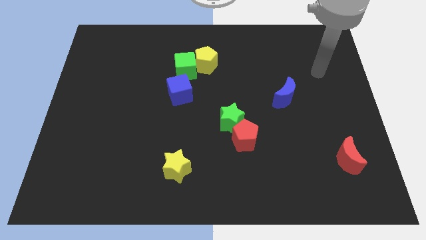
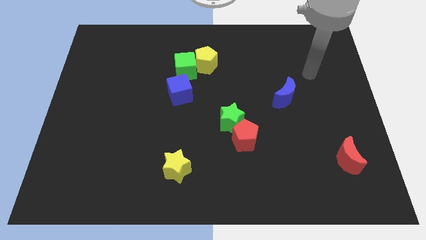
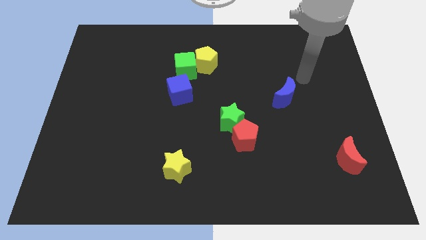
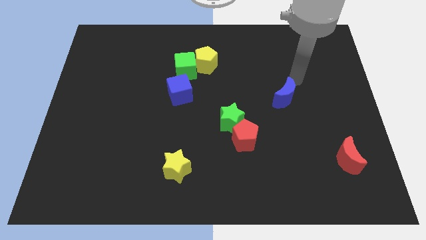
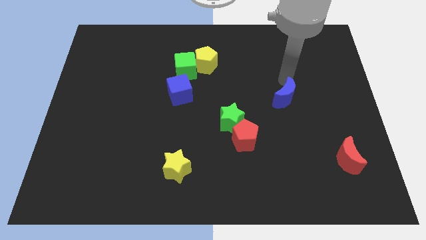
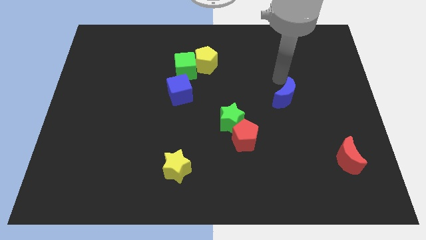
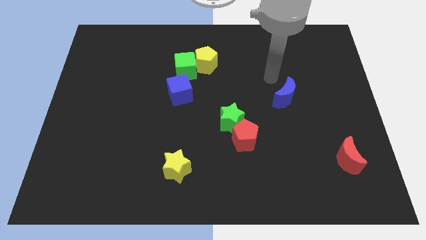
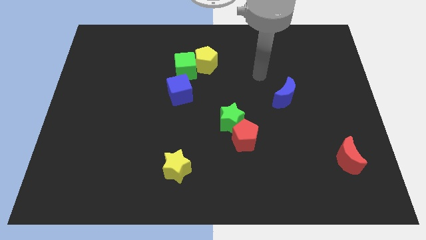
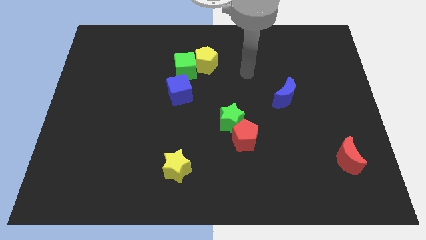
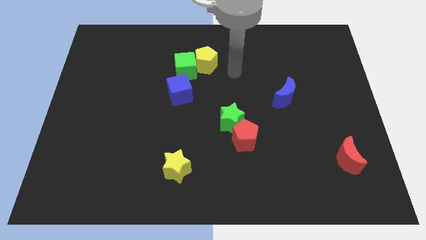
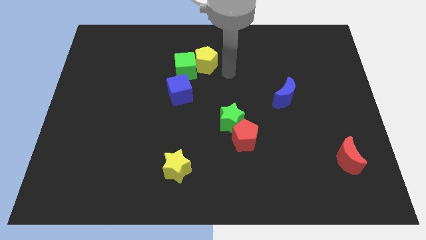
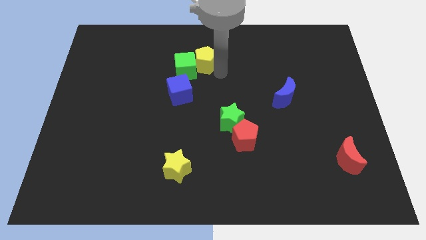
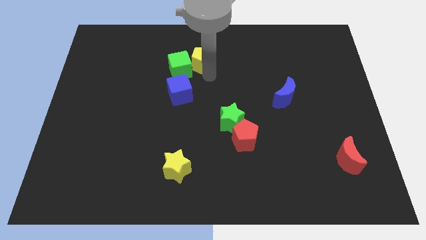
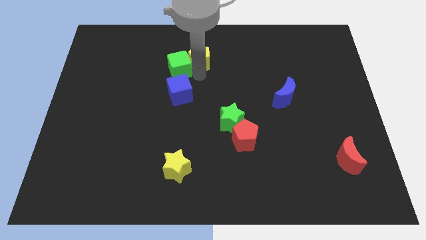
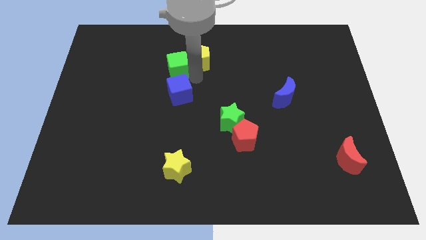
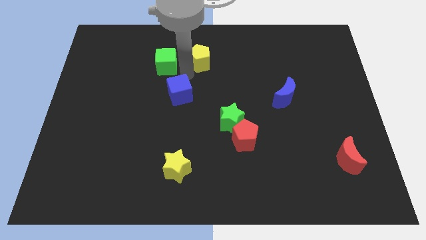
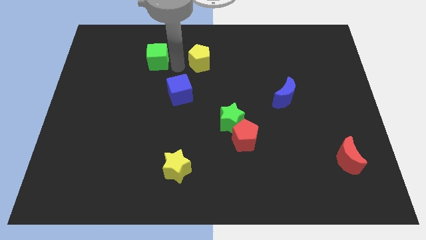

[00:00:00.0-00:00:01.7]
separate the yellow pentagon from the green cube

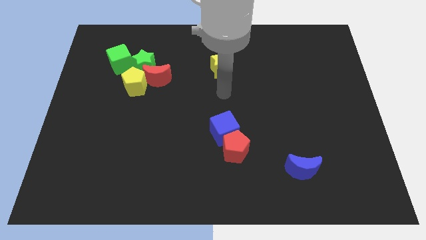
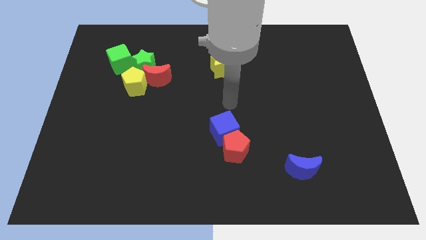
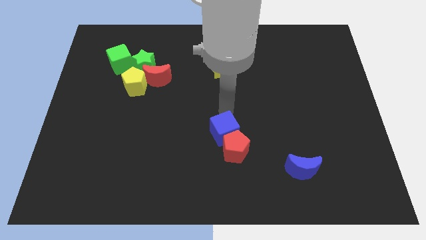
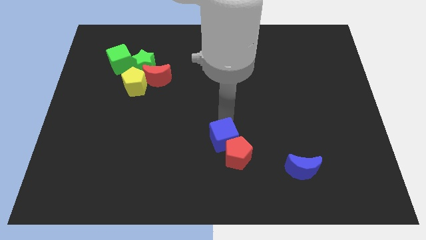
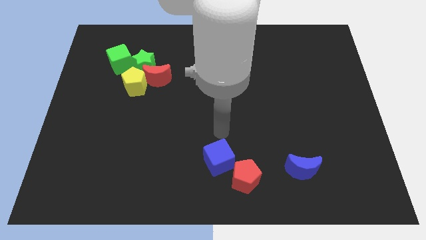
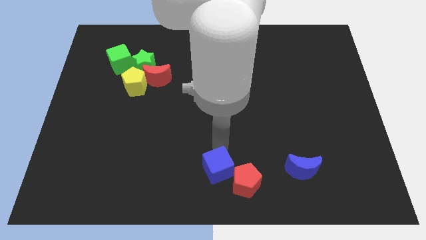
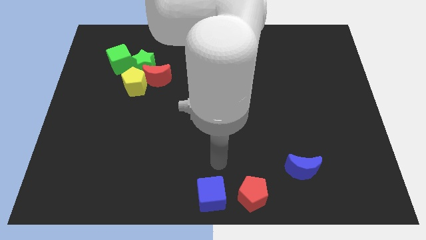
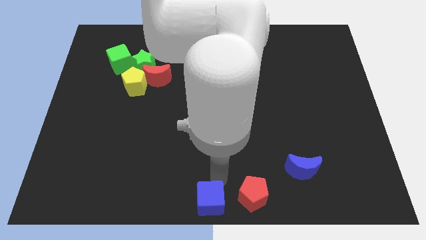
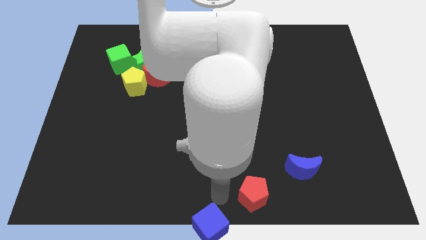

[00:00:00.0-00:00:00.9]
separate the red pentagon from the blue cube

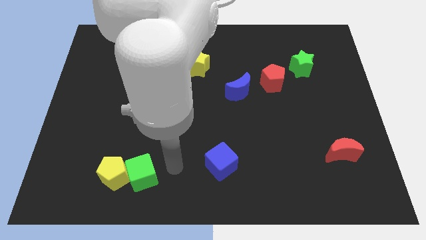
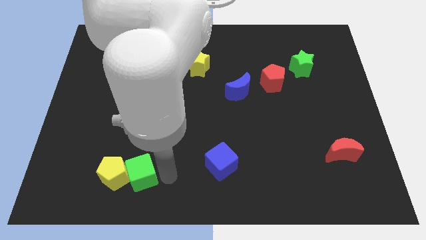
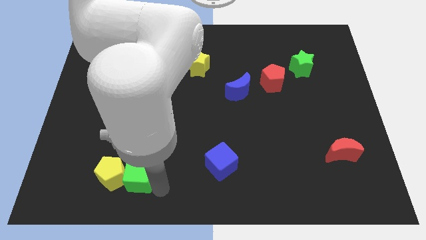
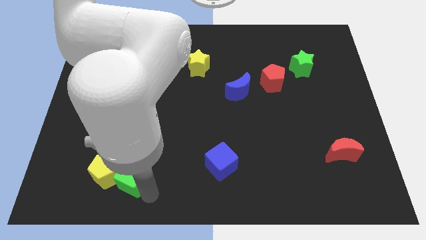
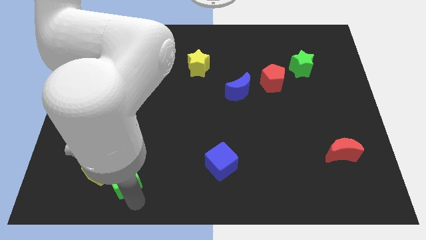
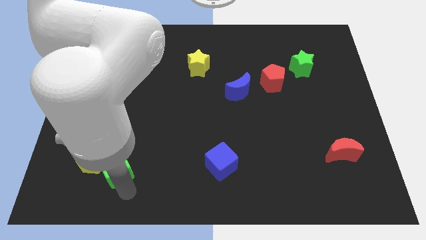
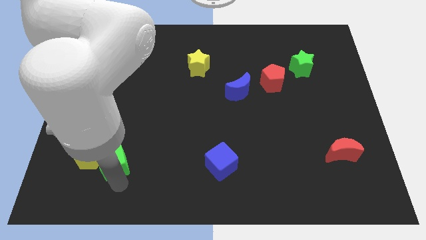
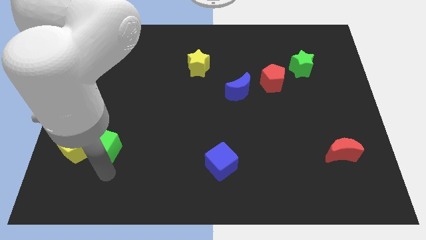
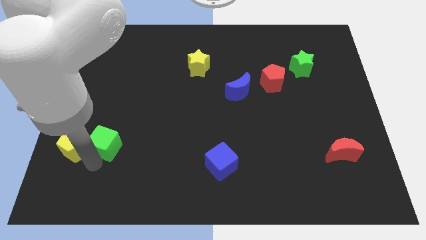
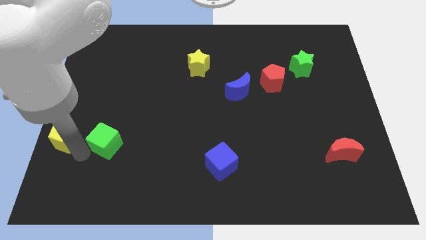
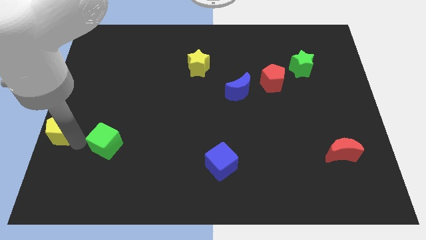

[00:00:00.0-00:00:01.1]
pull the green cube apart from the yellow pentagon

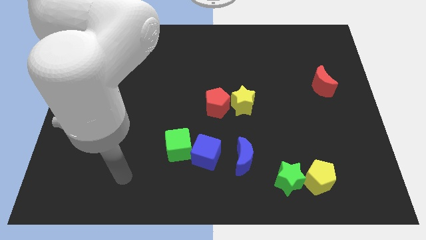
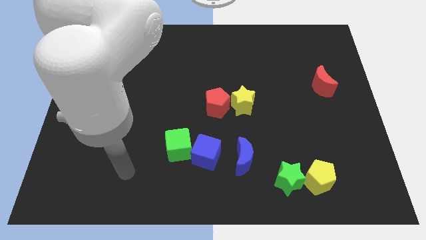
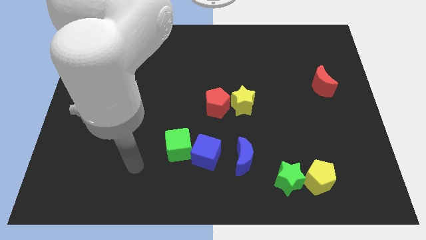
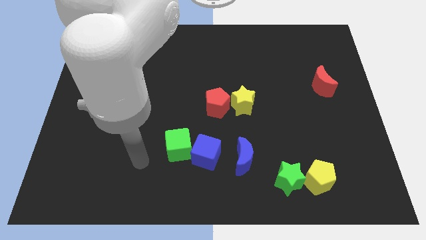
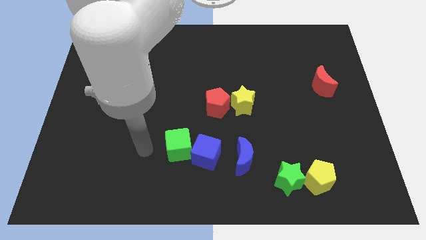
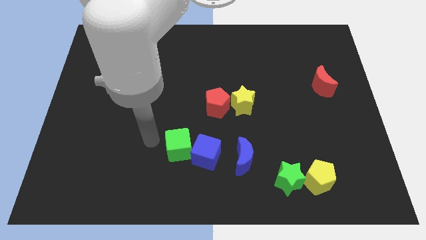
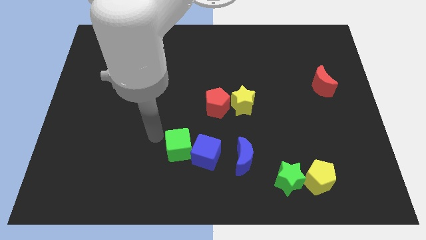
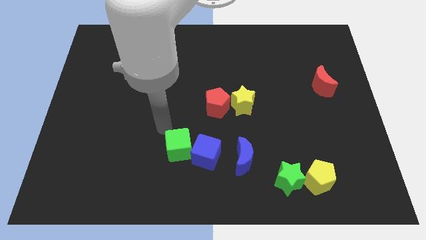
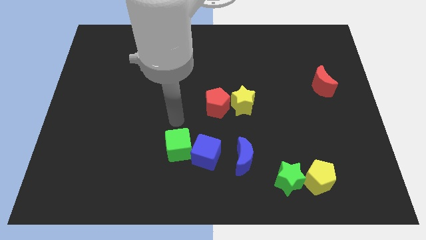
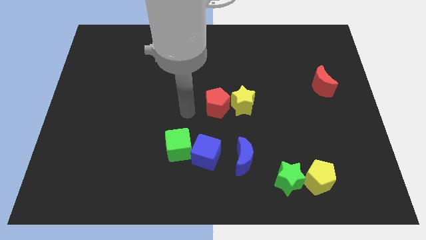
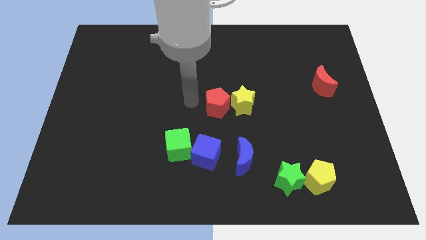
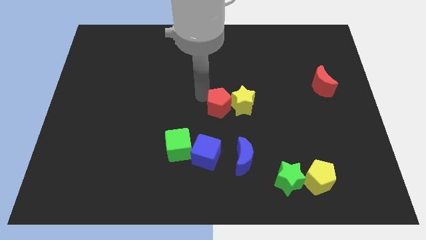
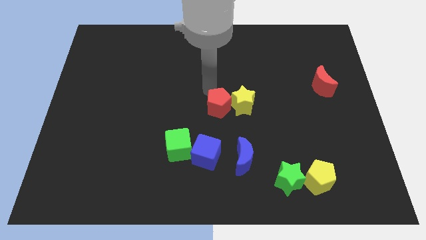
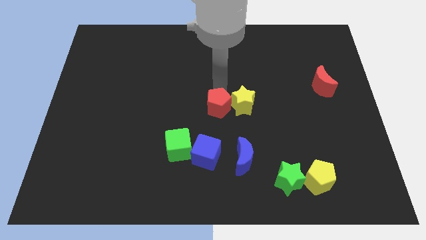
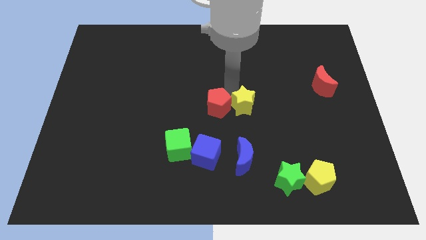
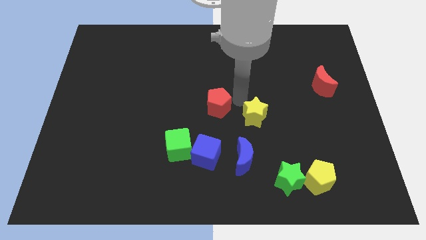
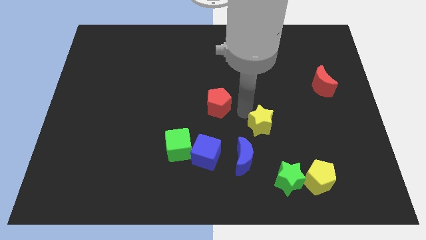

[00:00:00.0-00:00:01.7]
move the red pentagon away from the yellow star

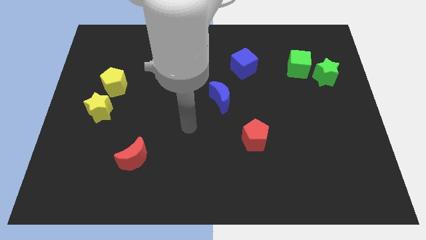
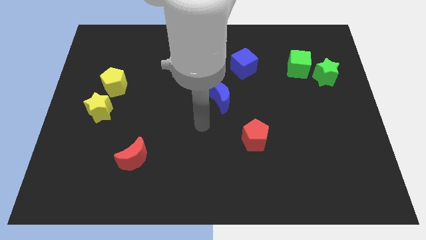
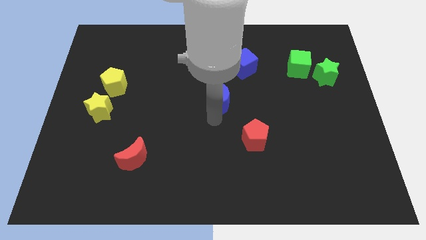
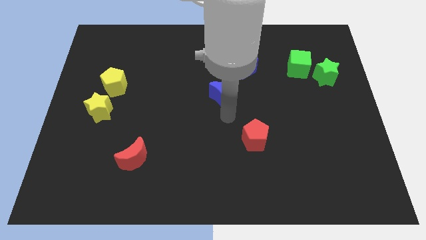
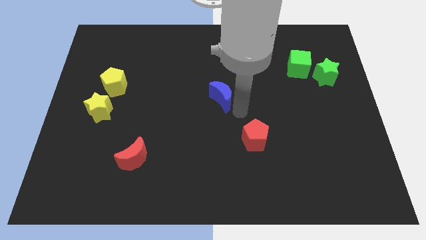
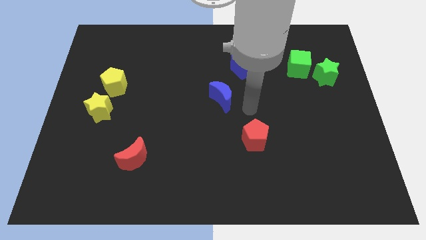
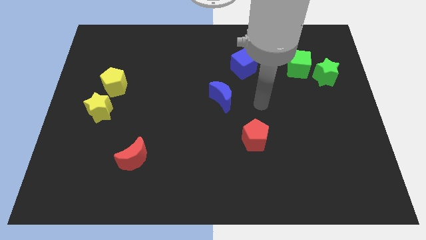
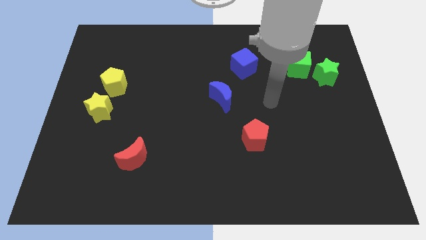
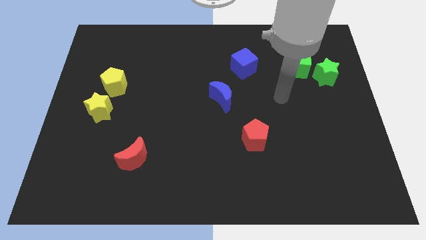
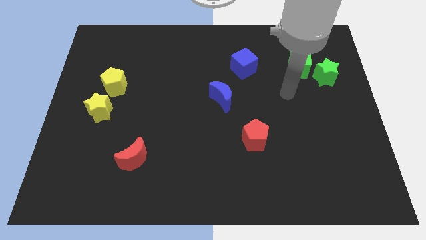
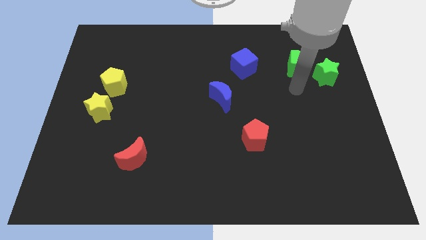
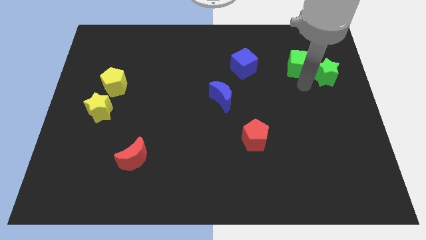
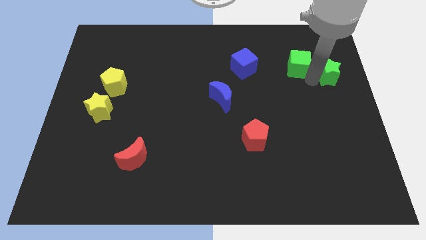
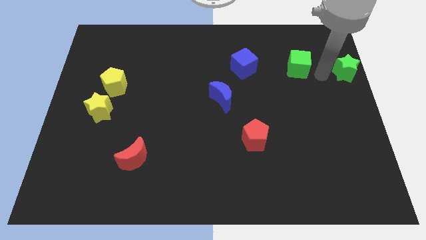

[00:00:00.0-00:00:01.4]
pull the green cube apart from the green star

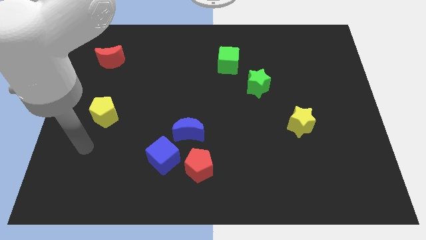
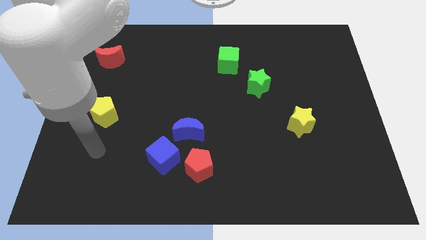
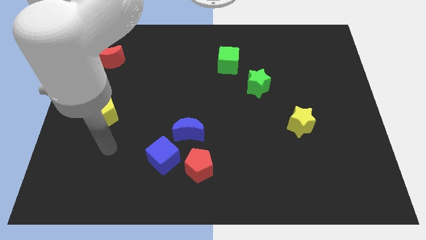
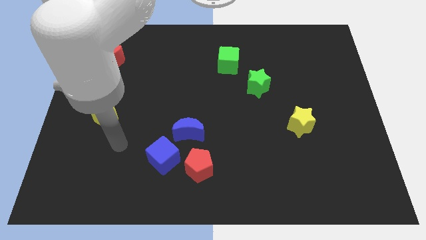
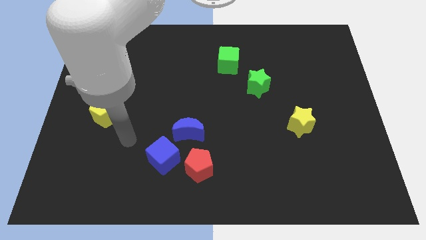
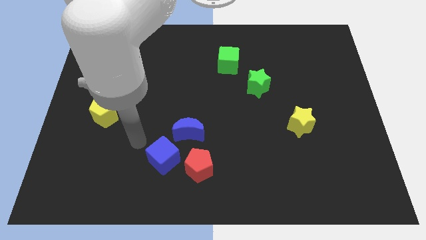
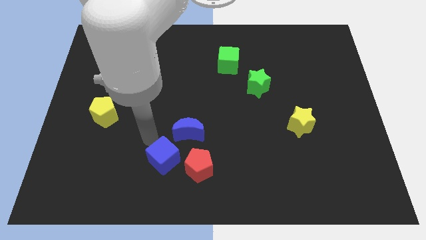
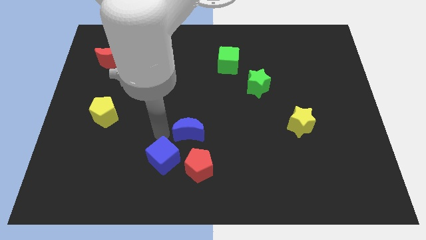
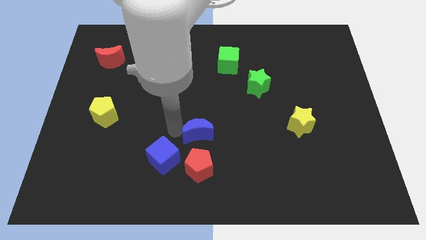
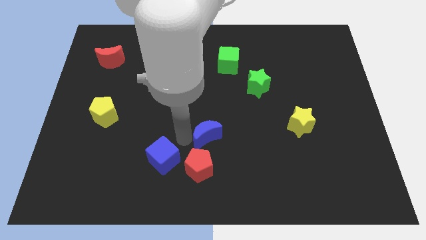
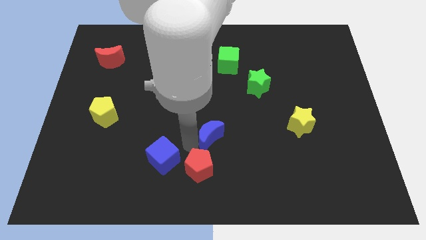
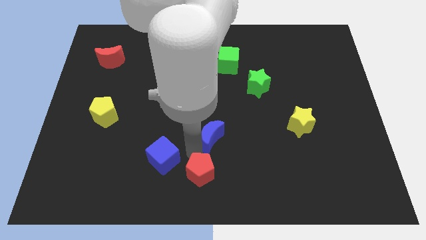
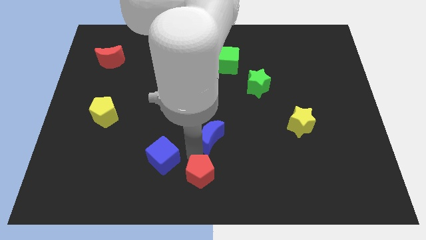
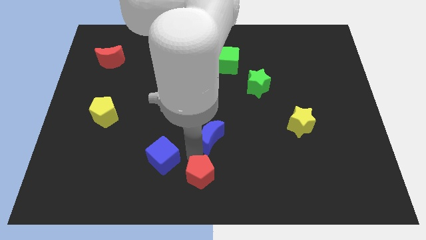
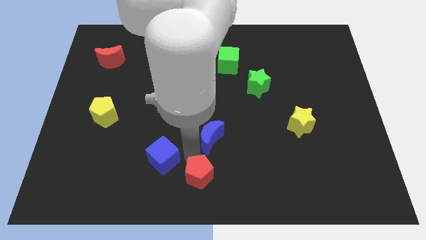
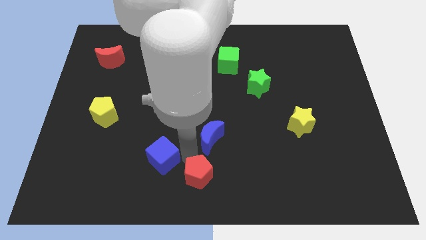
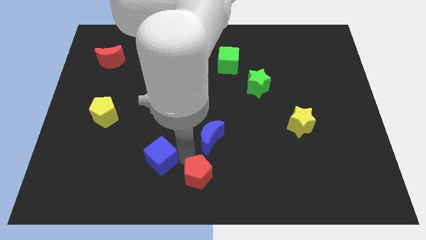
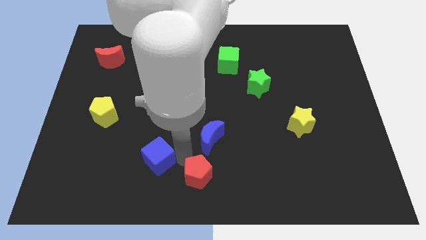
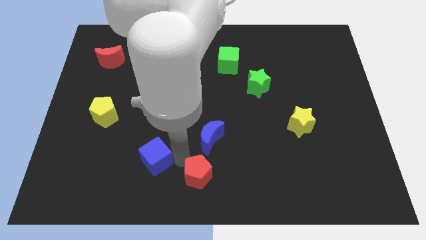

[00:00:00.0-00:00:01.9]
move the blue cube away from the red pentagon and blue moon

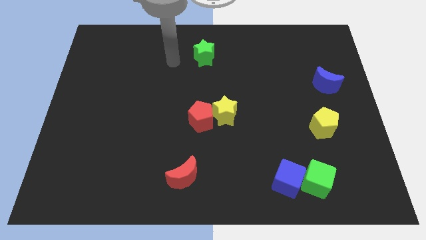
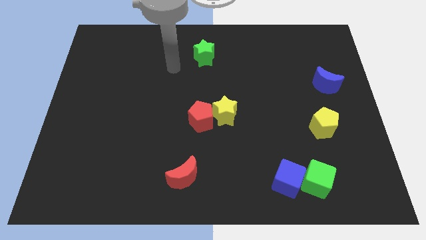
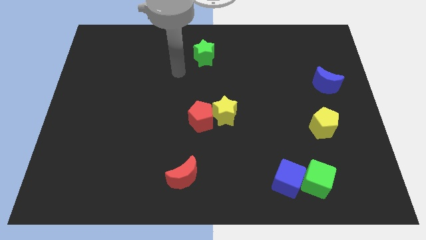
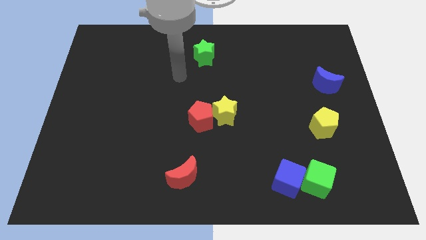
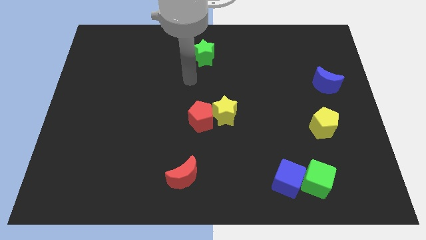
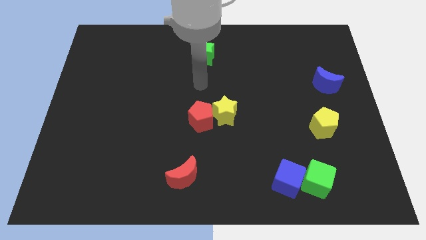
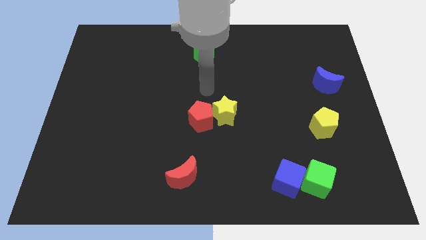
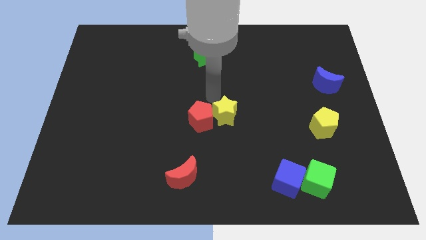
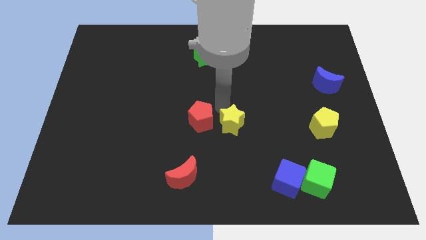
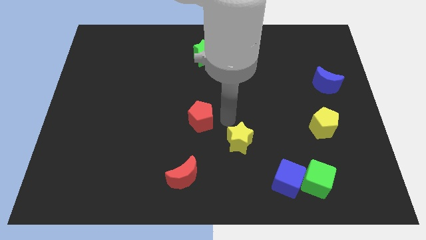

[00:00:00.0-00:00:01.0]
pull the red pentagon apart from the yellow star
